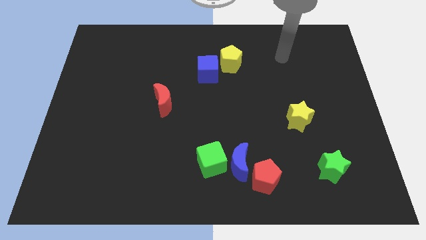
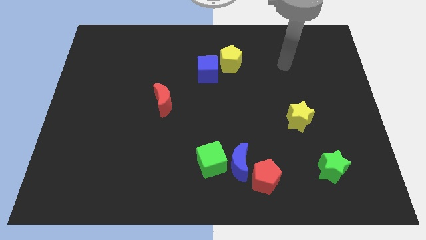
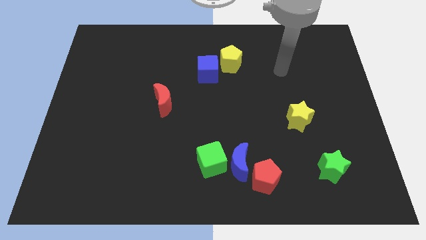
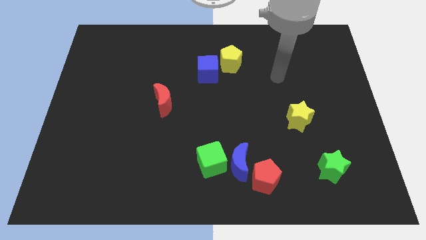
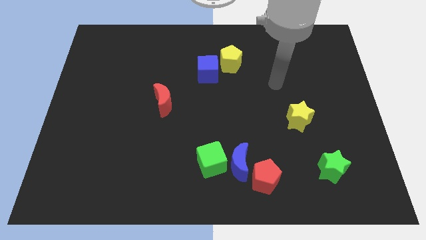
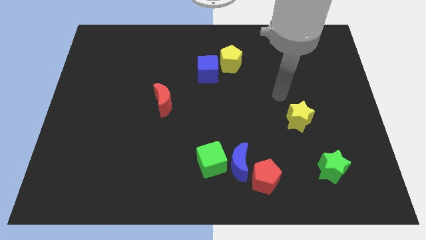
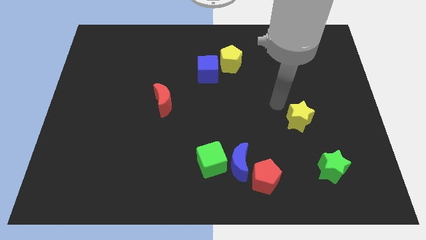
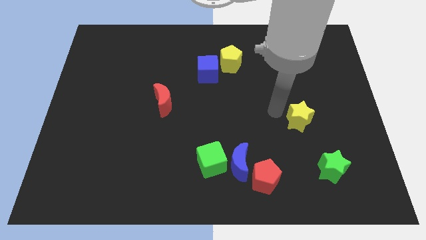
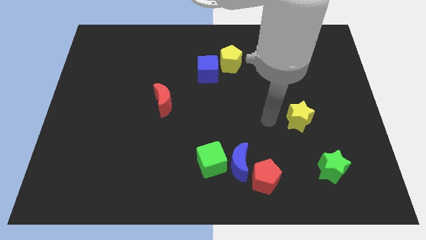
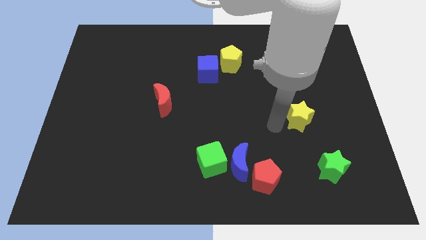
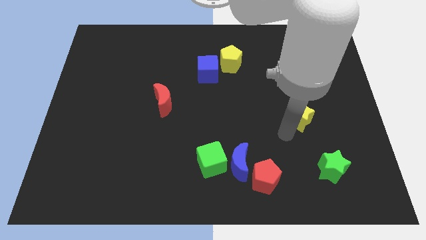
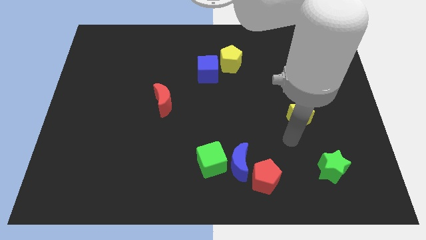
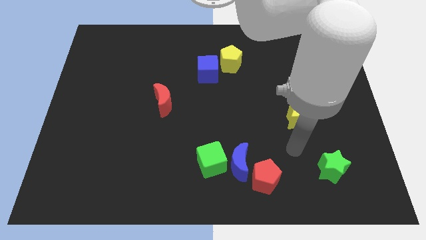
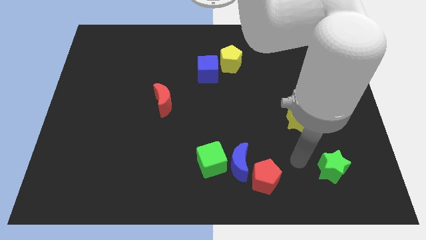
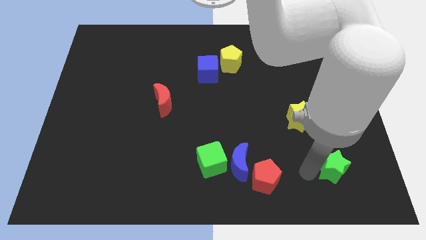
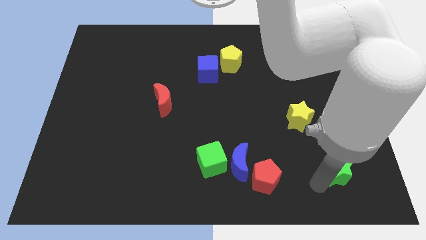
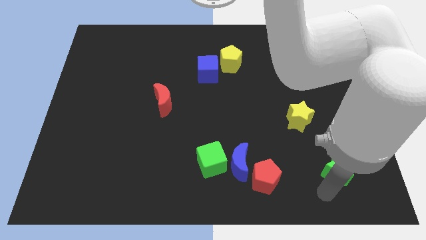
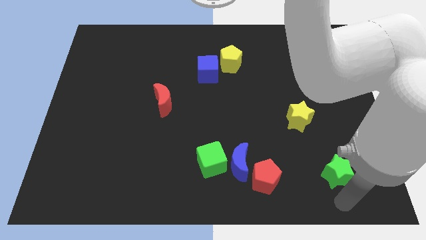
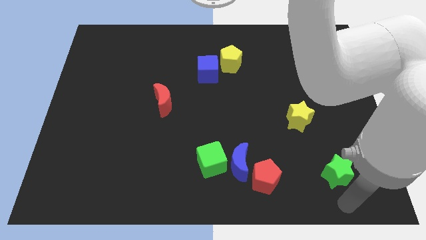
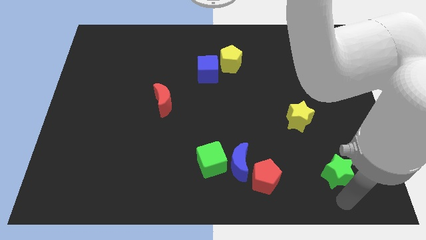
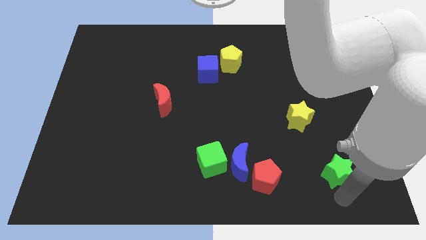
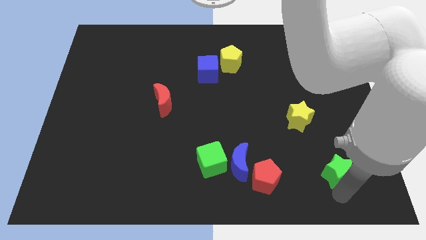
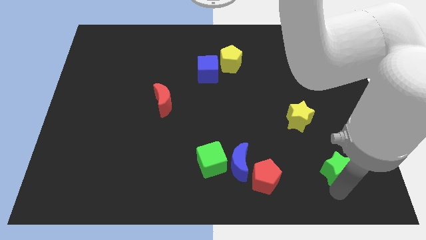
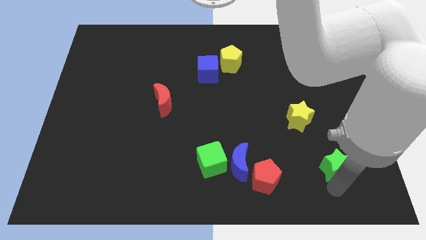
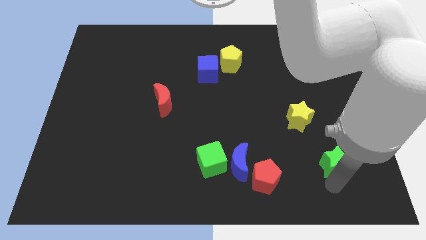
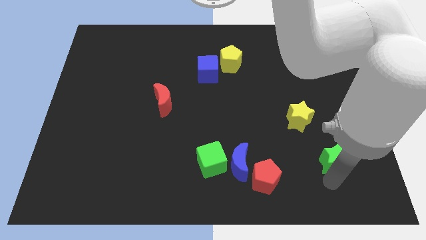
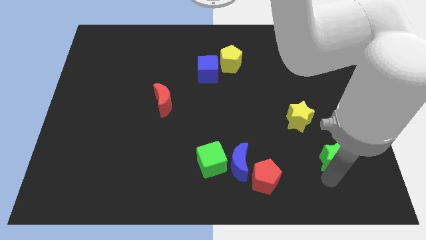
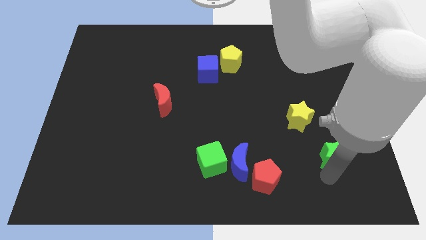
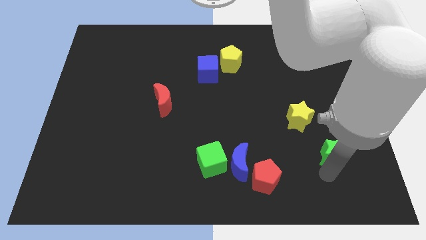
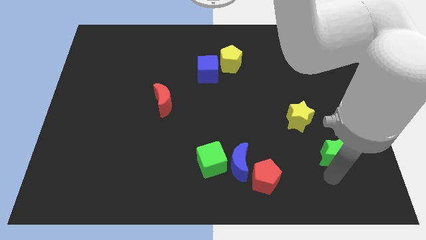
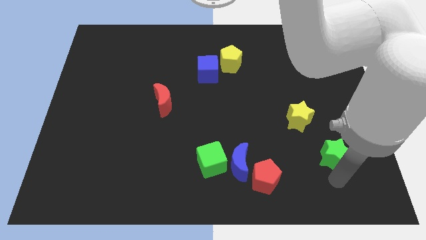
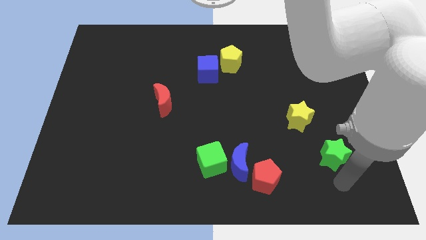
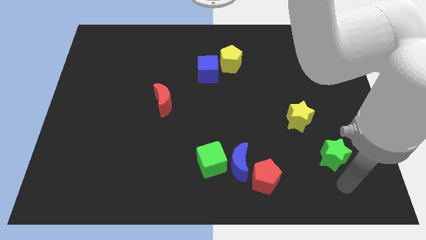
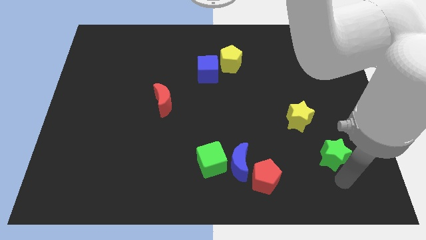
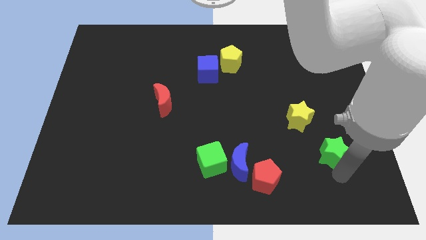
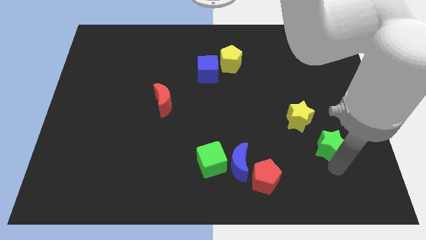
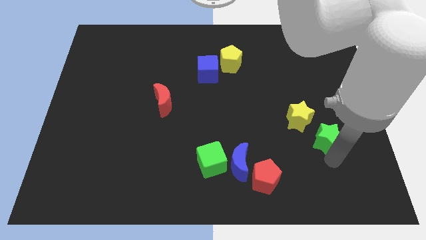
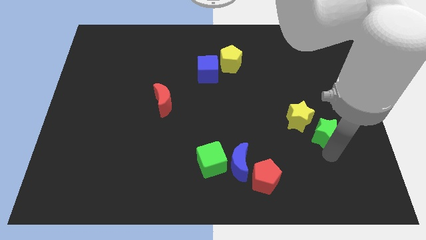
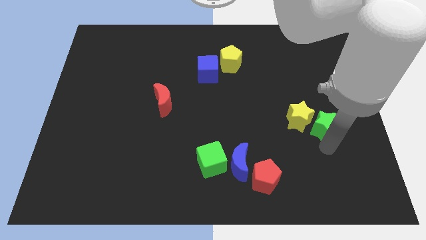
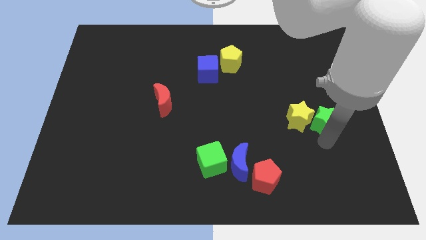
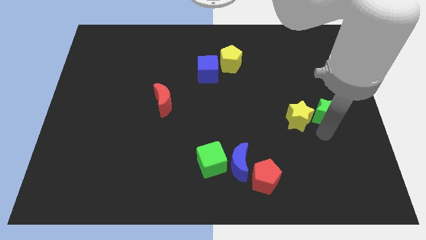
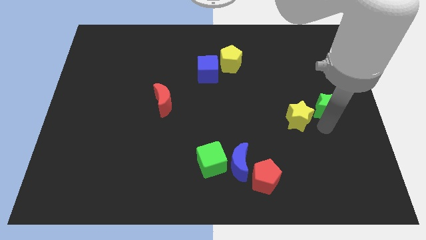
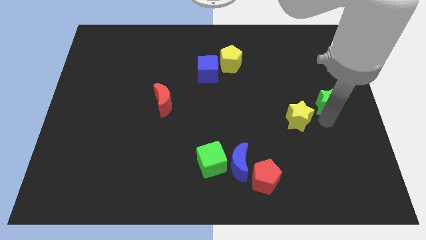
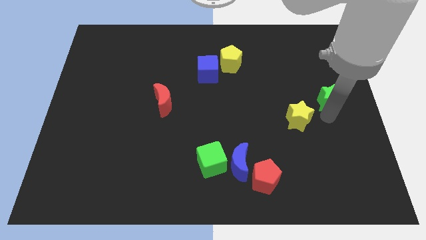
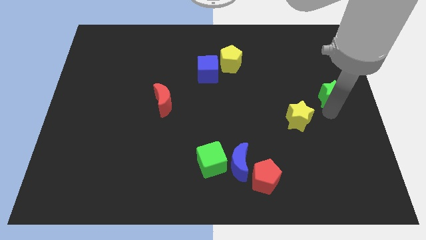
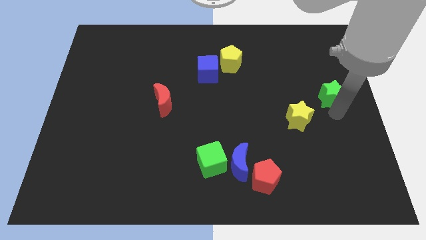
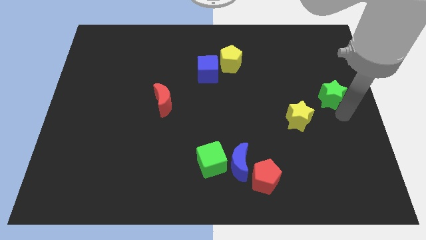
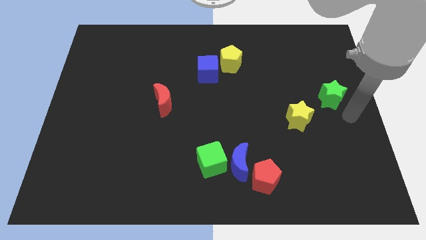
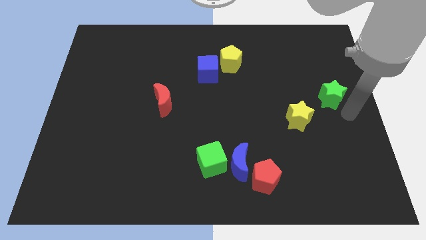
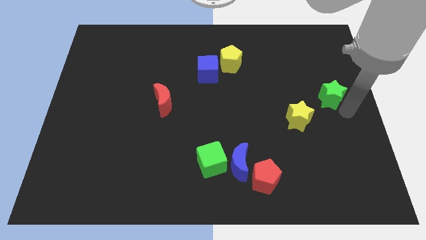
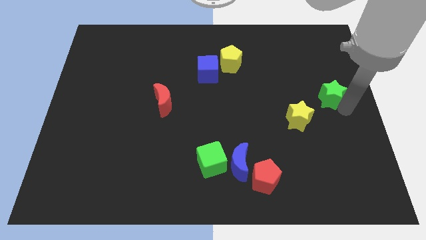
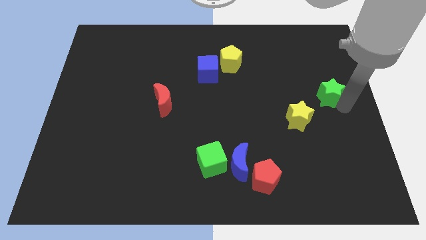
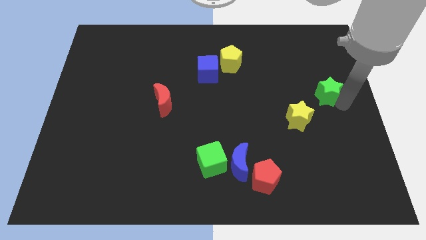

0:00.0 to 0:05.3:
move the green star upwards

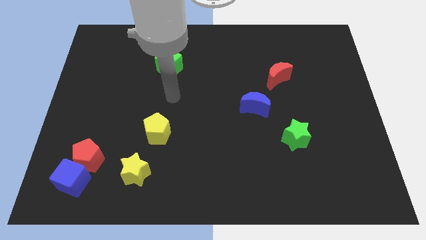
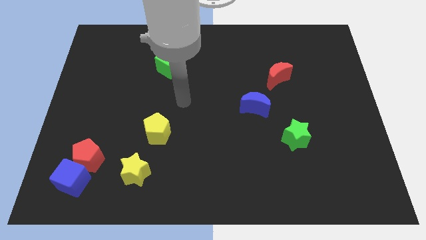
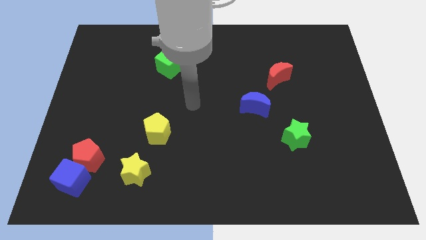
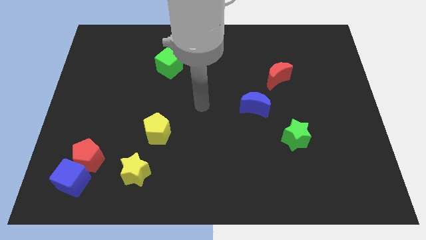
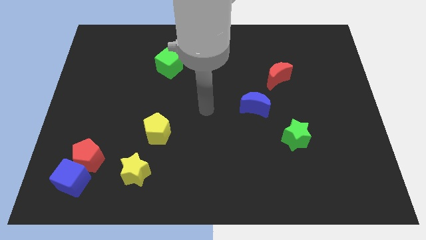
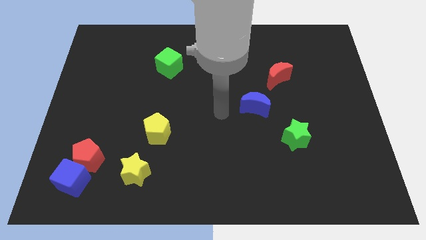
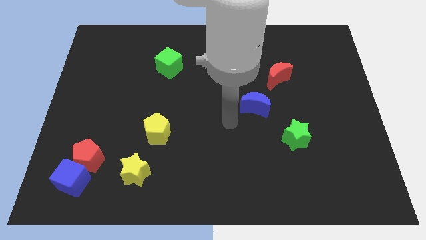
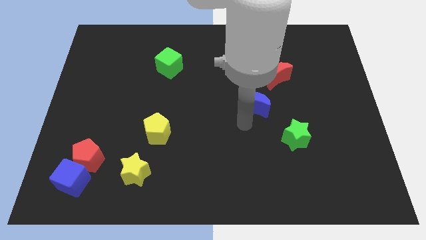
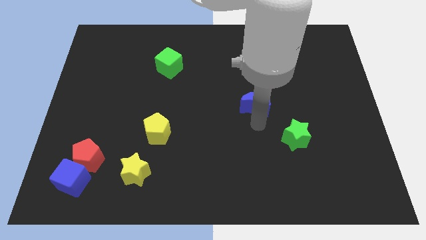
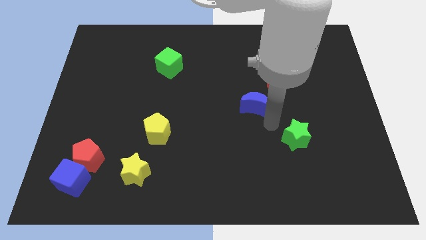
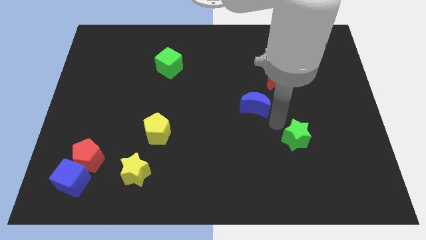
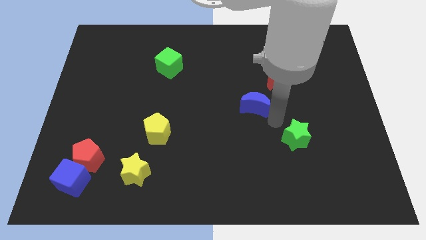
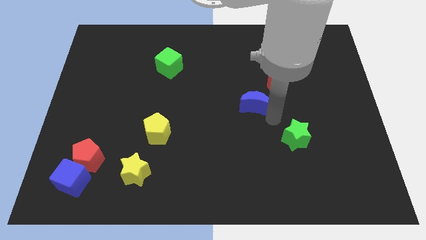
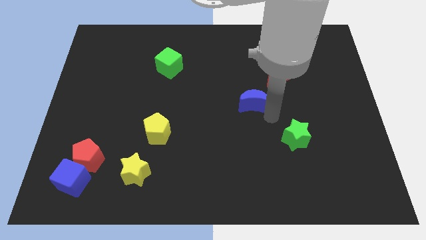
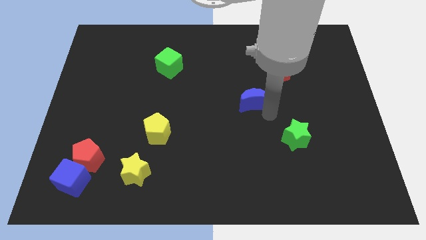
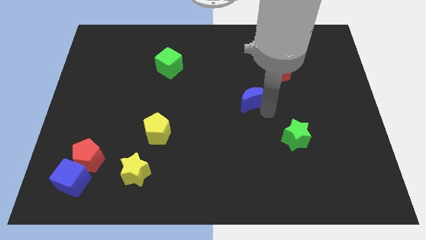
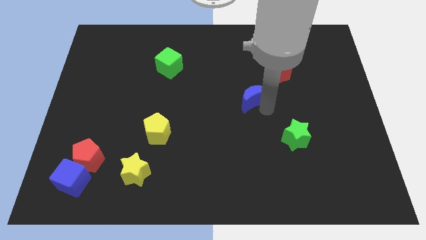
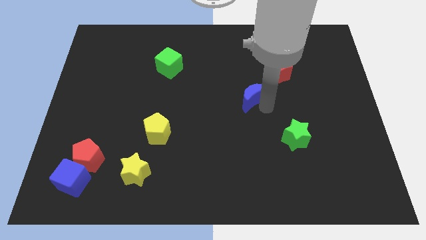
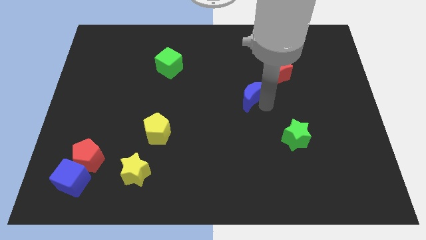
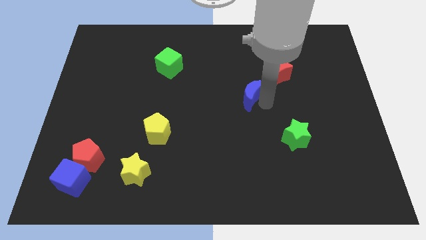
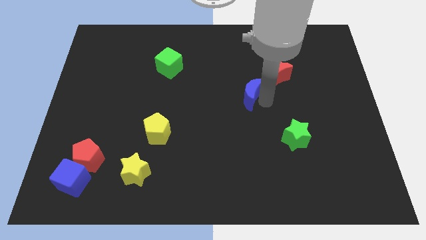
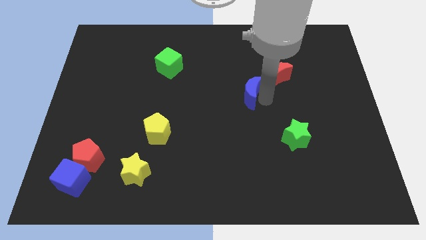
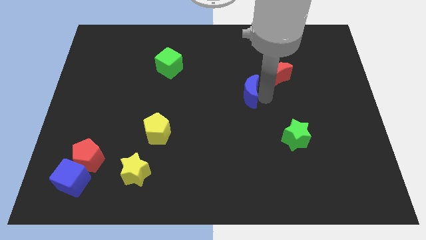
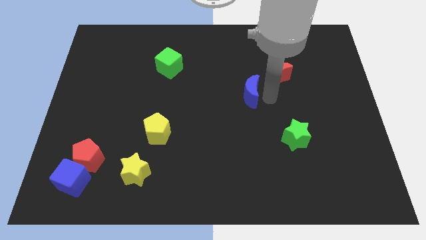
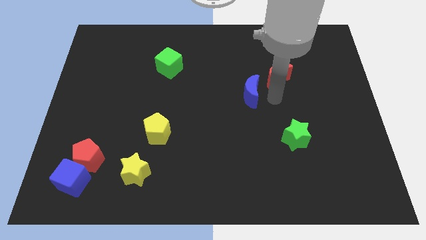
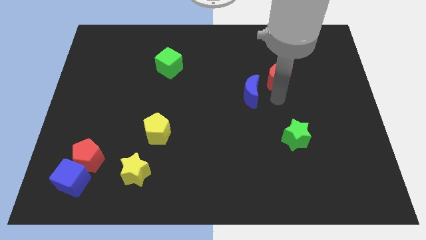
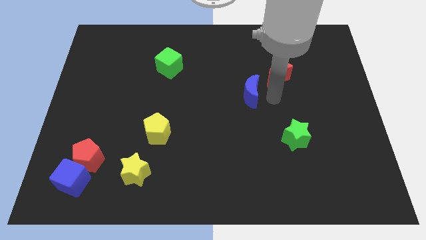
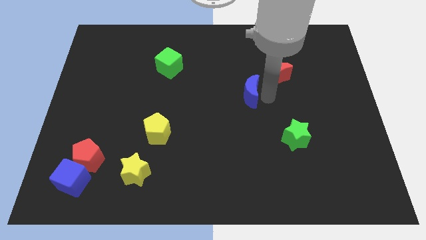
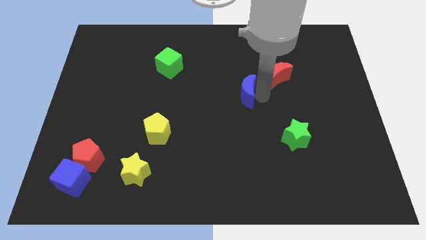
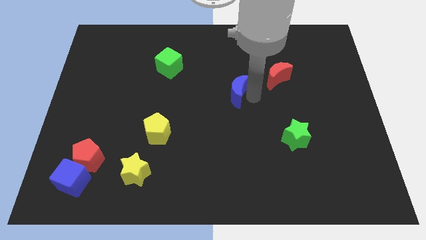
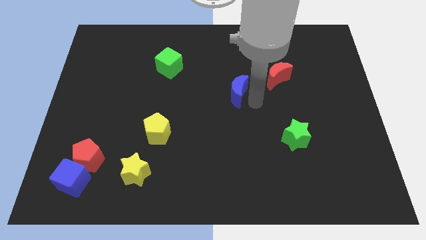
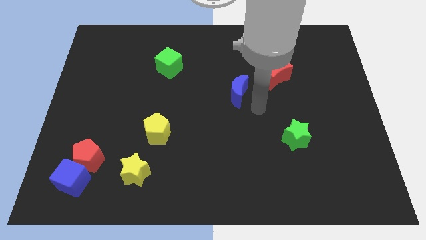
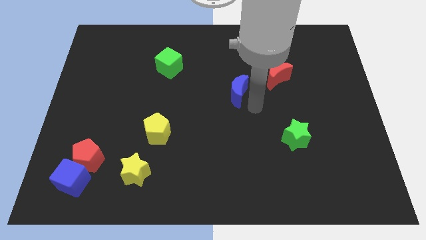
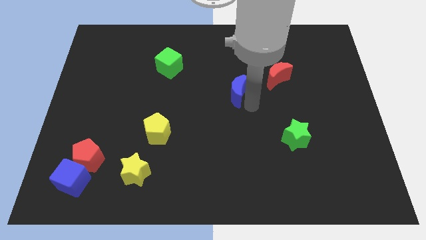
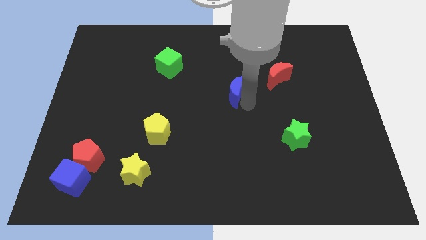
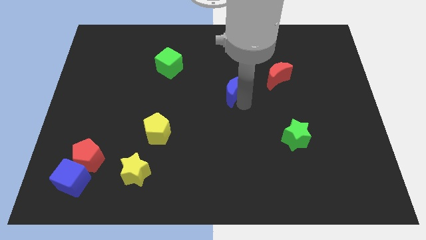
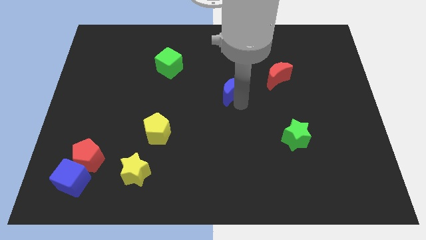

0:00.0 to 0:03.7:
move the blue moon somewhat upwards and then to the left
